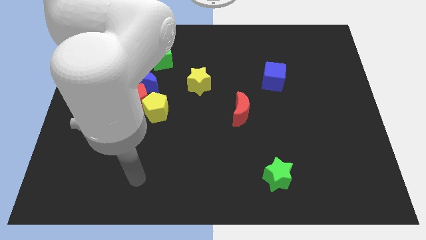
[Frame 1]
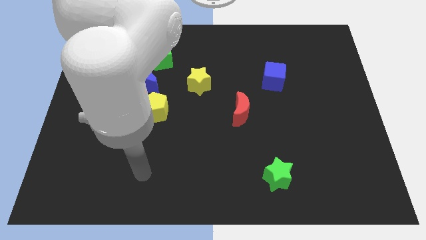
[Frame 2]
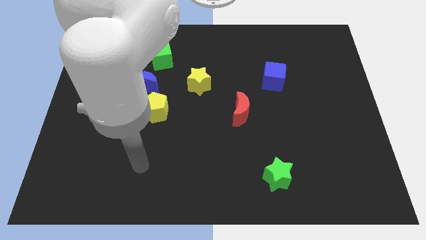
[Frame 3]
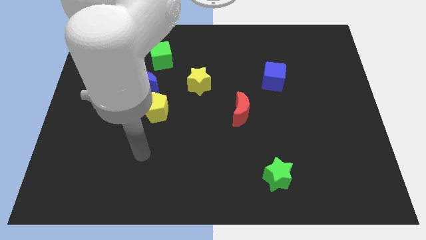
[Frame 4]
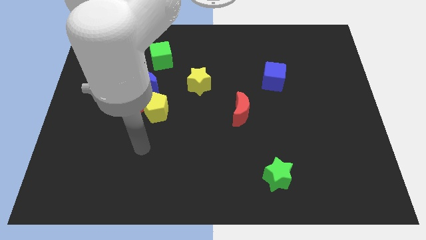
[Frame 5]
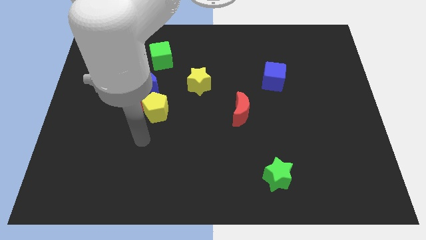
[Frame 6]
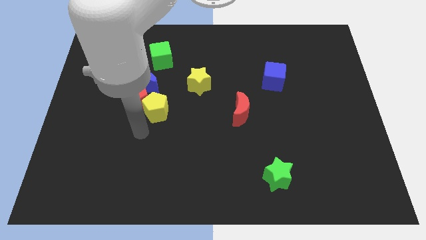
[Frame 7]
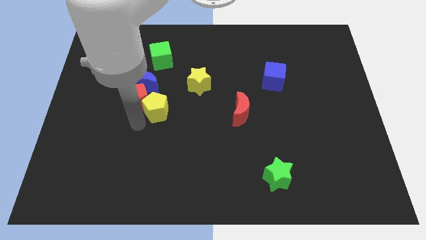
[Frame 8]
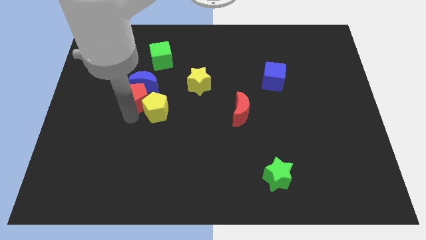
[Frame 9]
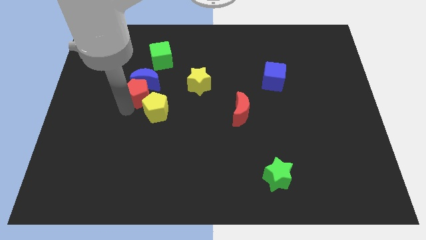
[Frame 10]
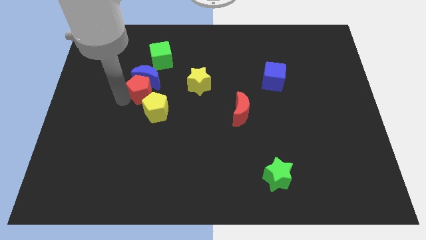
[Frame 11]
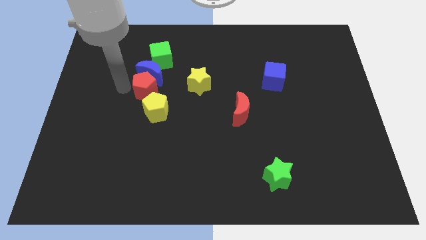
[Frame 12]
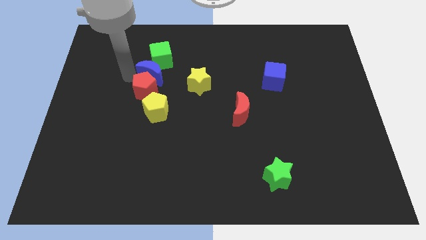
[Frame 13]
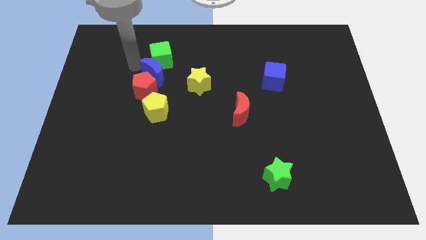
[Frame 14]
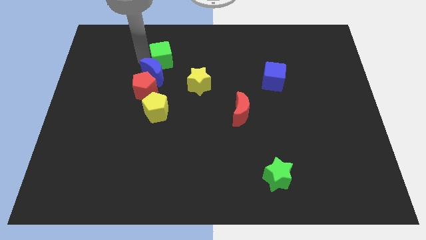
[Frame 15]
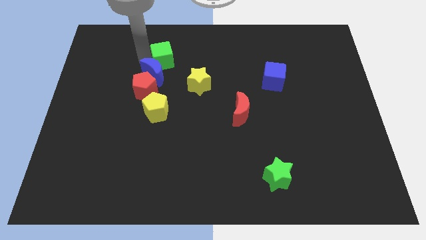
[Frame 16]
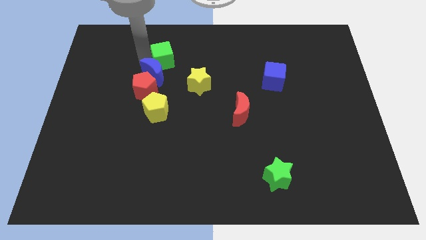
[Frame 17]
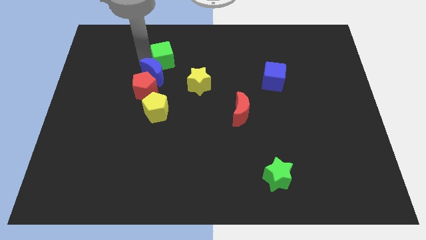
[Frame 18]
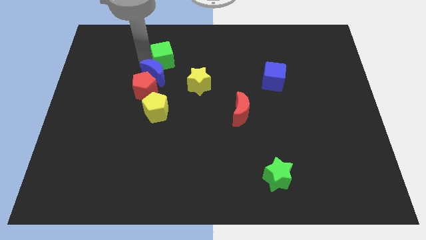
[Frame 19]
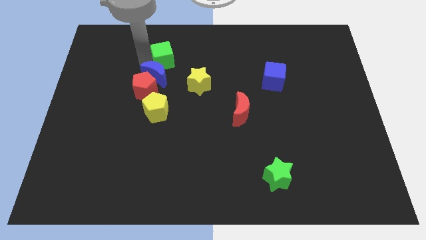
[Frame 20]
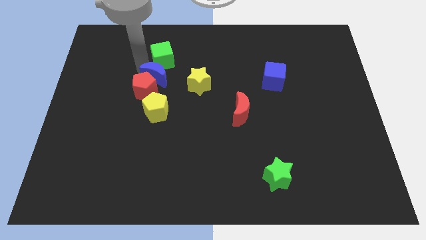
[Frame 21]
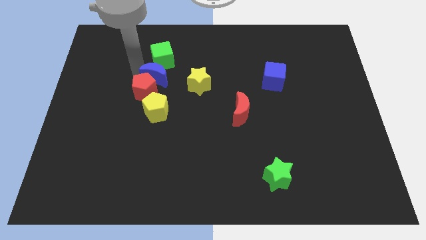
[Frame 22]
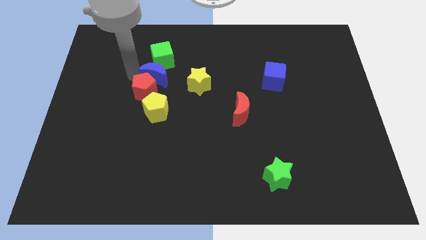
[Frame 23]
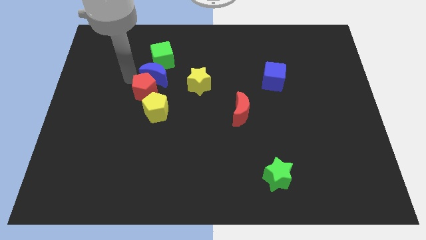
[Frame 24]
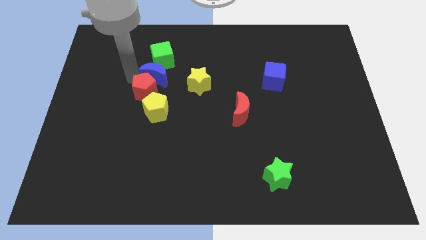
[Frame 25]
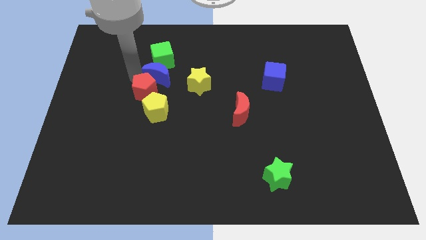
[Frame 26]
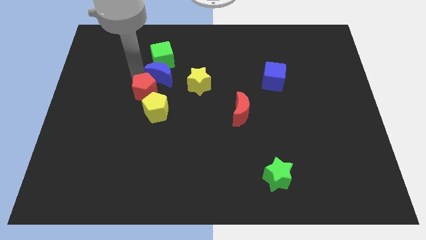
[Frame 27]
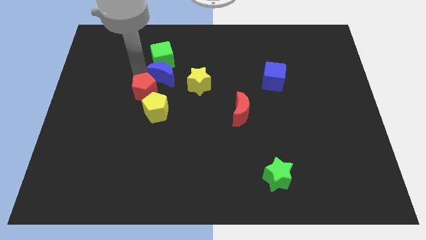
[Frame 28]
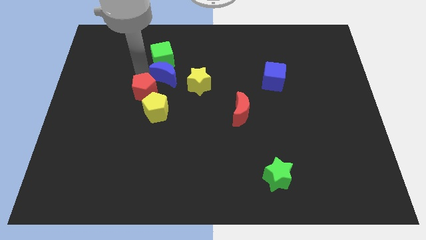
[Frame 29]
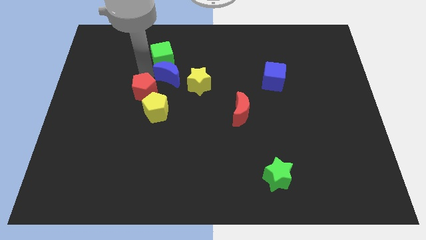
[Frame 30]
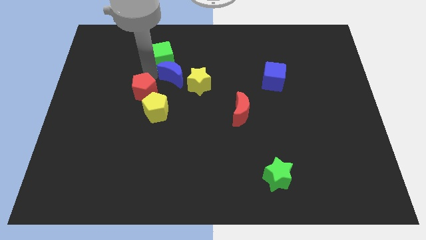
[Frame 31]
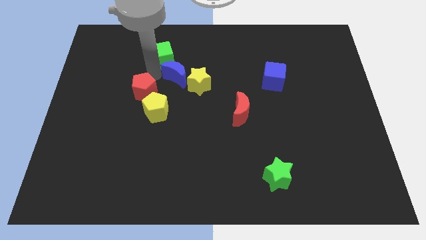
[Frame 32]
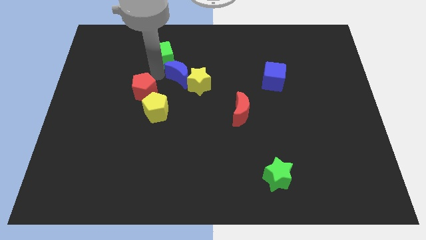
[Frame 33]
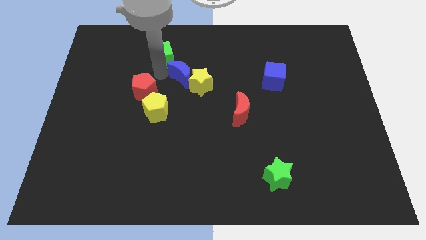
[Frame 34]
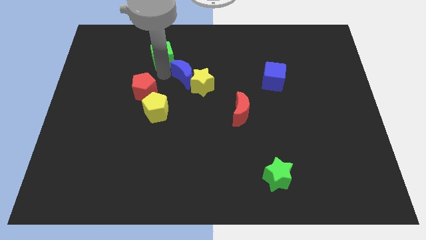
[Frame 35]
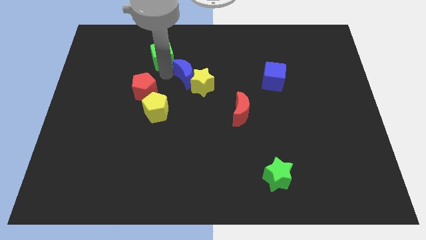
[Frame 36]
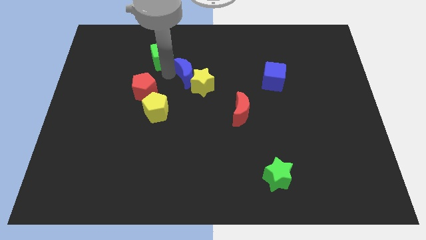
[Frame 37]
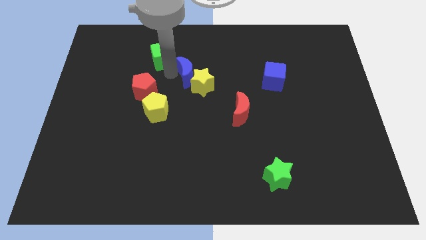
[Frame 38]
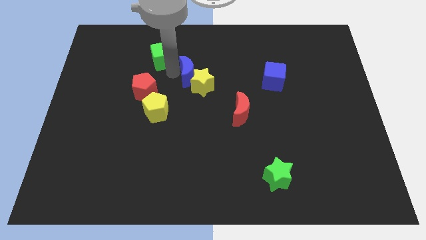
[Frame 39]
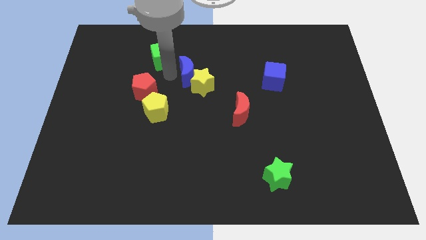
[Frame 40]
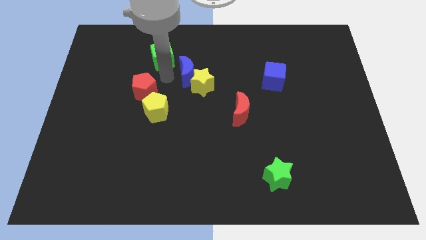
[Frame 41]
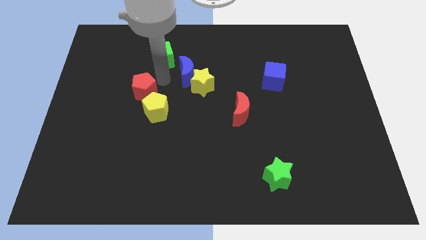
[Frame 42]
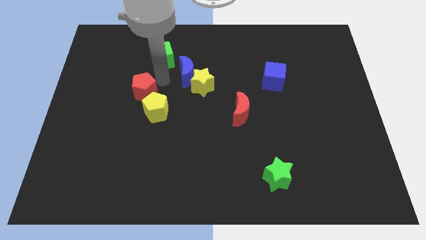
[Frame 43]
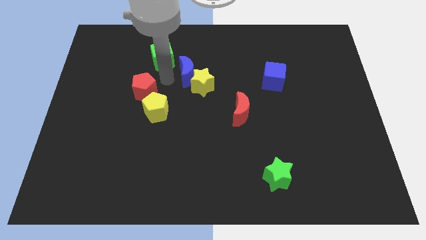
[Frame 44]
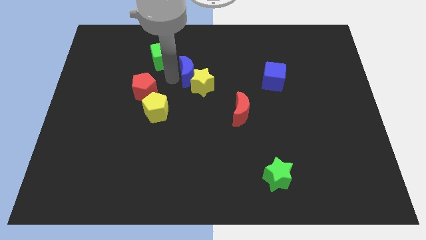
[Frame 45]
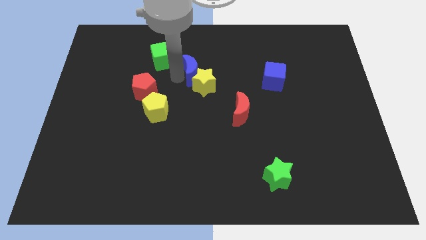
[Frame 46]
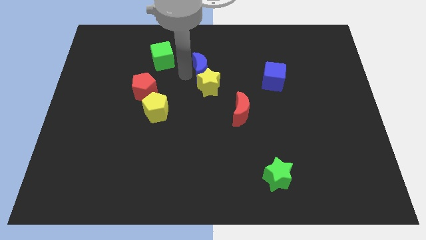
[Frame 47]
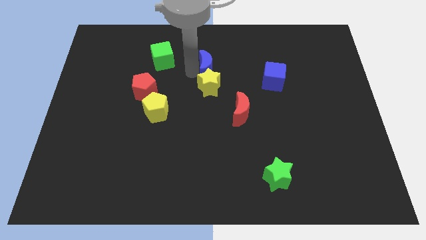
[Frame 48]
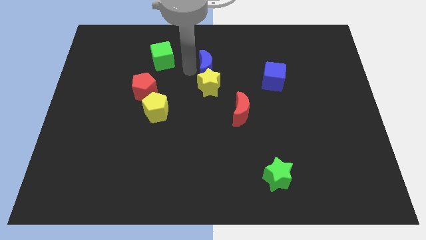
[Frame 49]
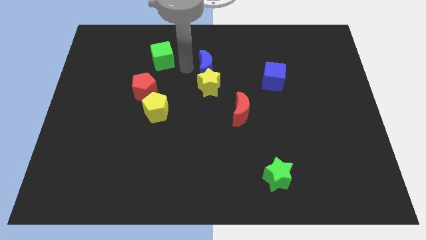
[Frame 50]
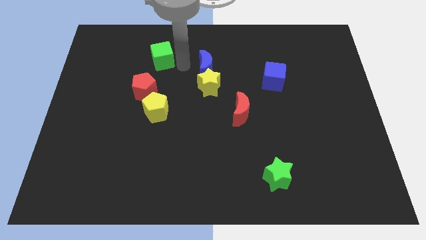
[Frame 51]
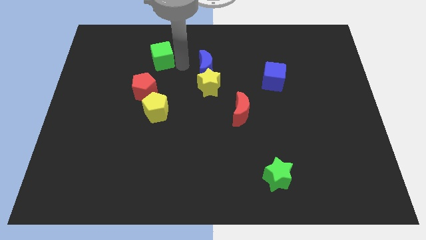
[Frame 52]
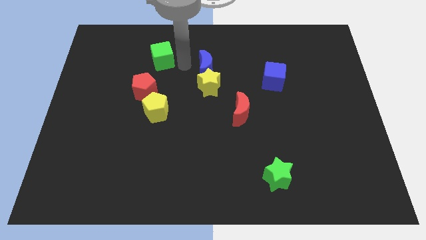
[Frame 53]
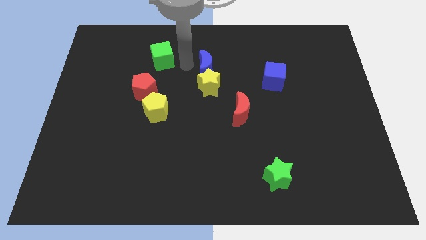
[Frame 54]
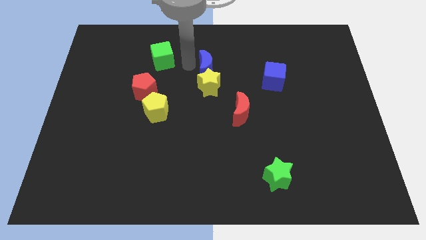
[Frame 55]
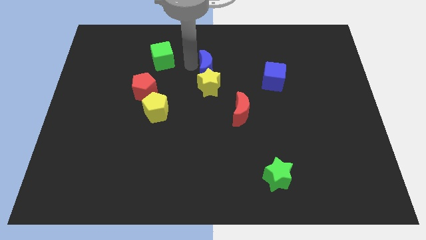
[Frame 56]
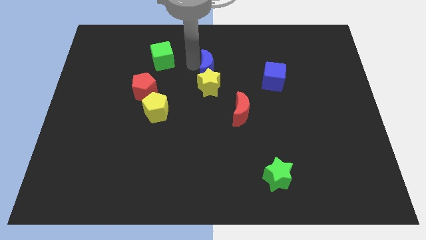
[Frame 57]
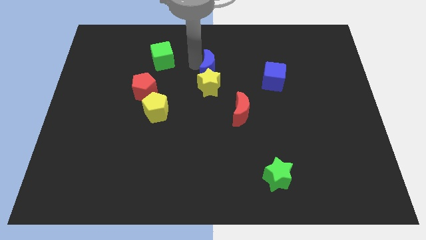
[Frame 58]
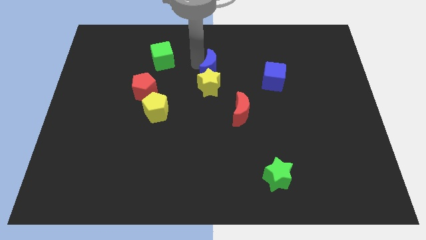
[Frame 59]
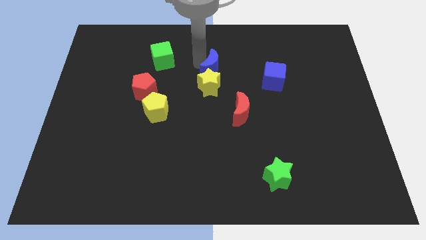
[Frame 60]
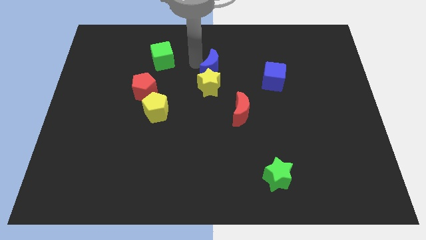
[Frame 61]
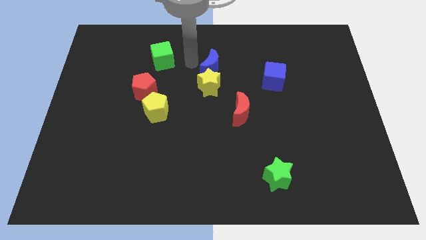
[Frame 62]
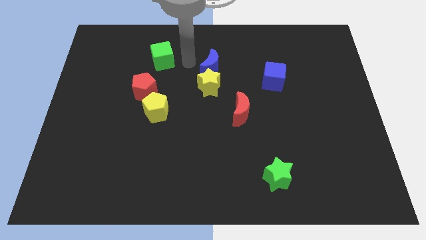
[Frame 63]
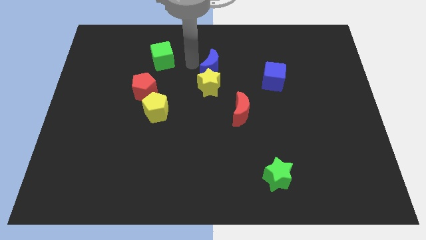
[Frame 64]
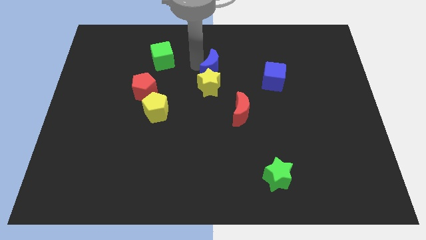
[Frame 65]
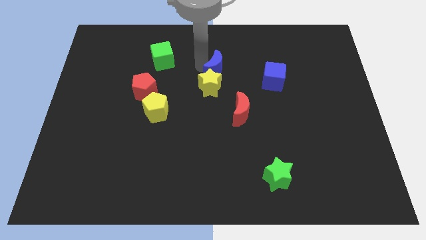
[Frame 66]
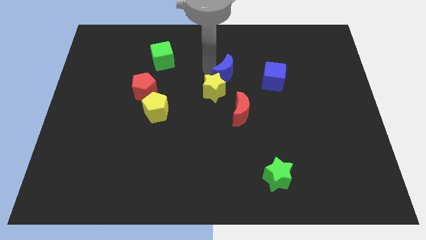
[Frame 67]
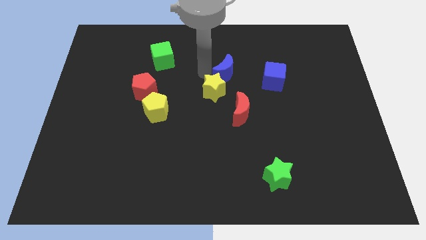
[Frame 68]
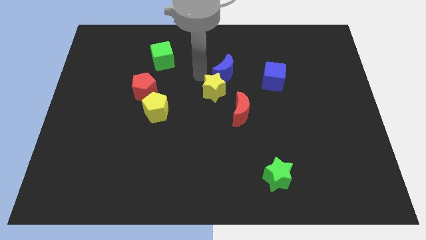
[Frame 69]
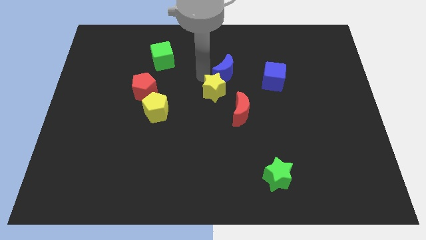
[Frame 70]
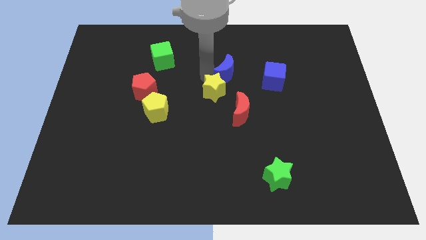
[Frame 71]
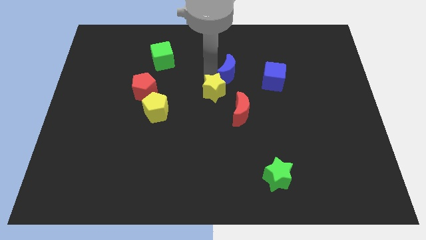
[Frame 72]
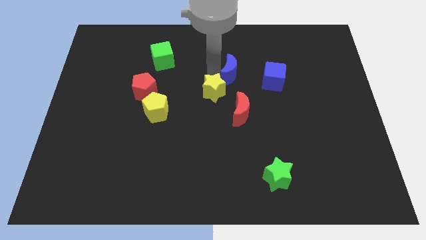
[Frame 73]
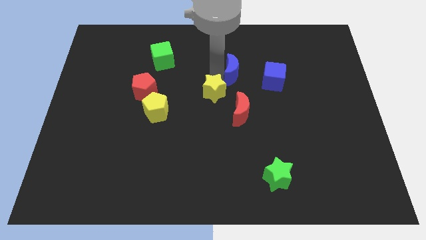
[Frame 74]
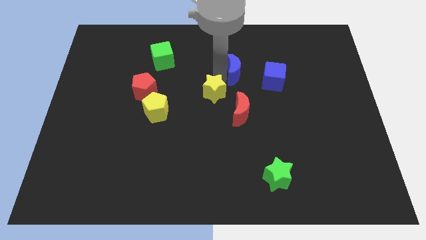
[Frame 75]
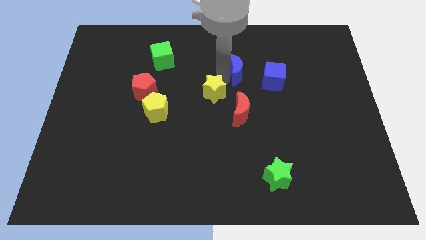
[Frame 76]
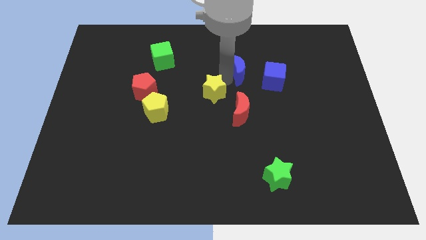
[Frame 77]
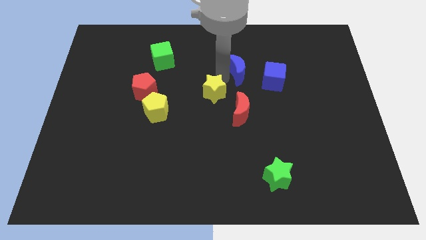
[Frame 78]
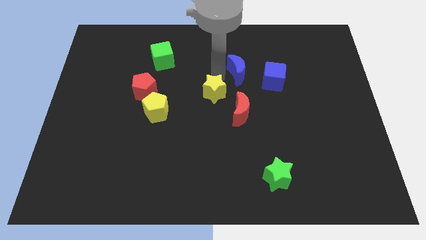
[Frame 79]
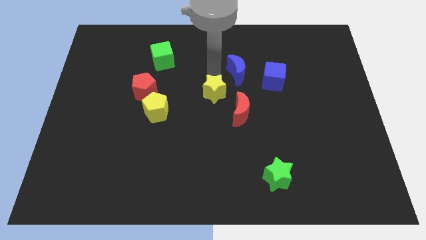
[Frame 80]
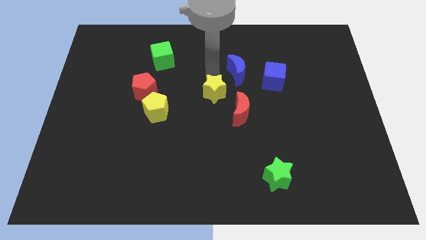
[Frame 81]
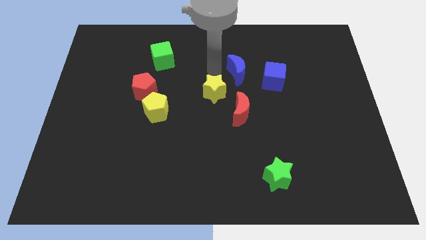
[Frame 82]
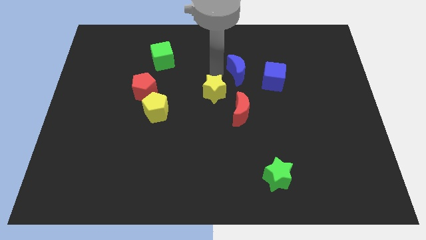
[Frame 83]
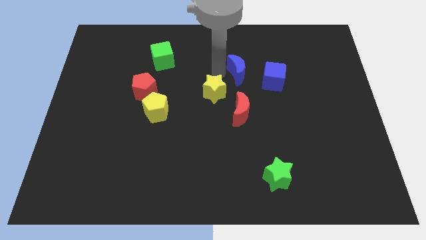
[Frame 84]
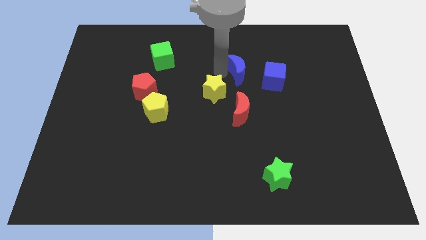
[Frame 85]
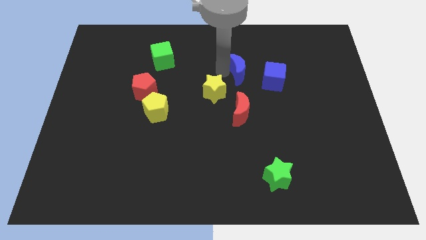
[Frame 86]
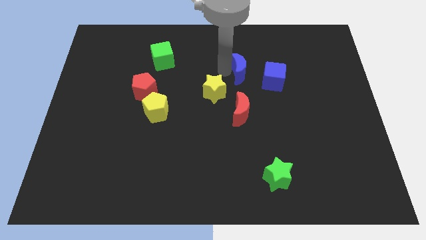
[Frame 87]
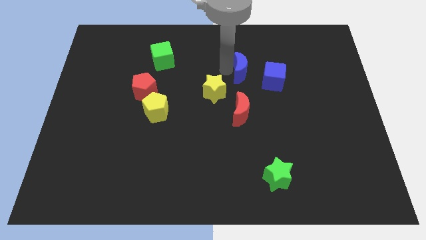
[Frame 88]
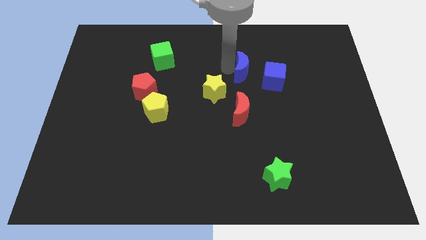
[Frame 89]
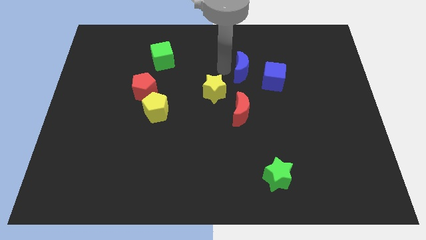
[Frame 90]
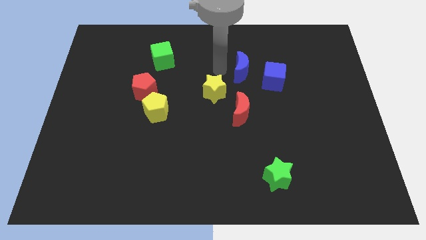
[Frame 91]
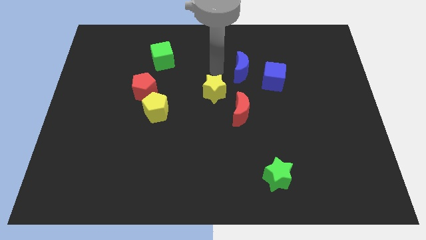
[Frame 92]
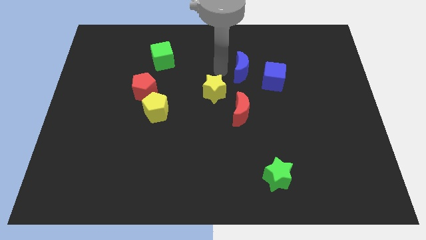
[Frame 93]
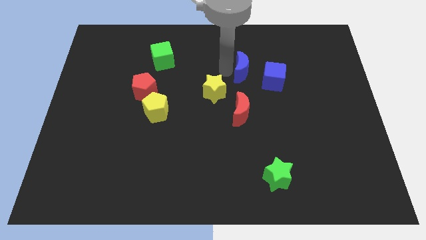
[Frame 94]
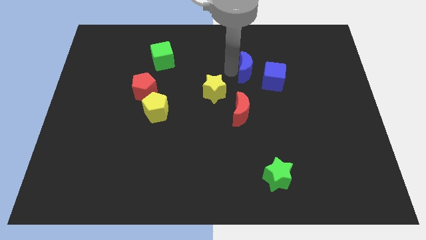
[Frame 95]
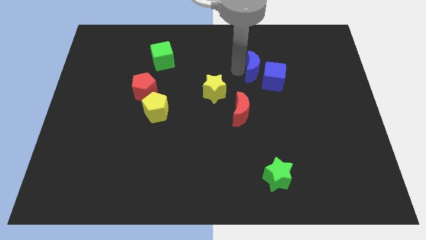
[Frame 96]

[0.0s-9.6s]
put the blue moon towards the blue cube
